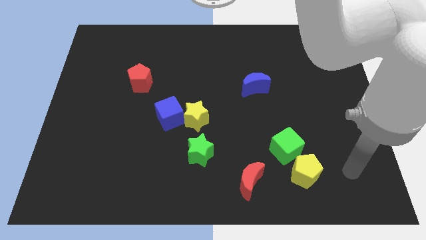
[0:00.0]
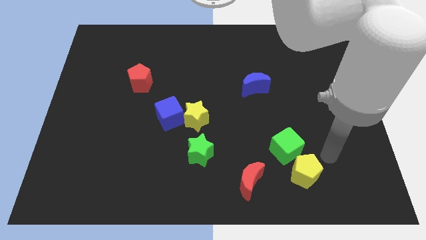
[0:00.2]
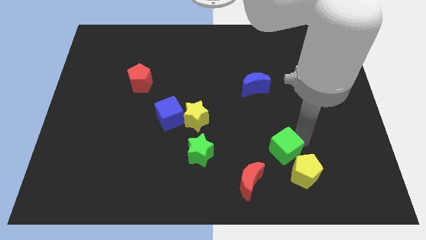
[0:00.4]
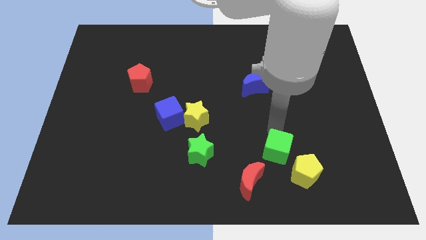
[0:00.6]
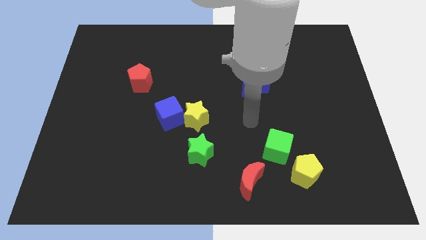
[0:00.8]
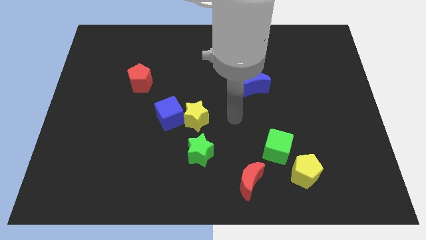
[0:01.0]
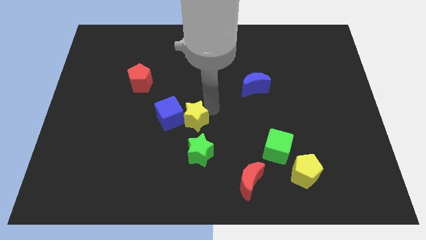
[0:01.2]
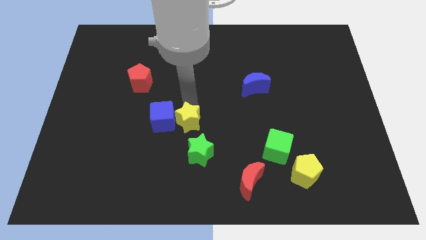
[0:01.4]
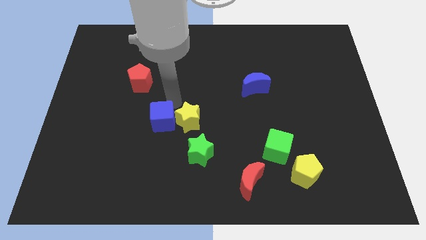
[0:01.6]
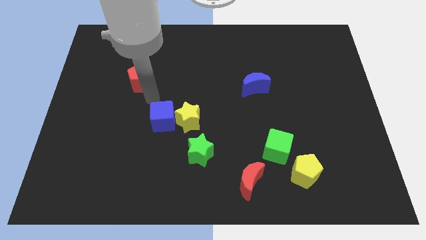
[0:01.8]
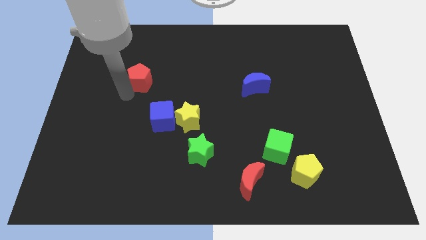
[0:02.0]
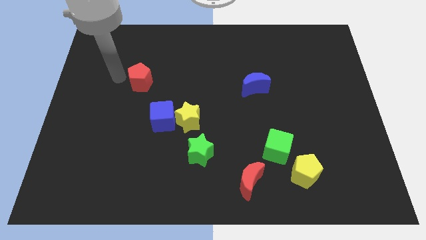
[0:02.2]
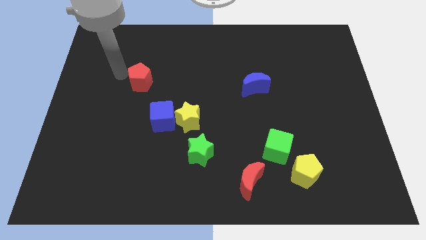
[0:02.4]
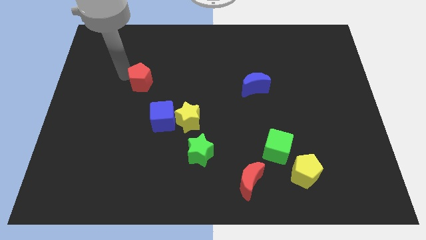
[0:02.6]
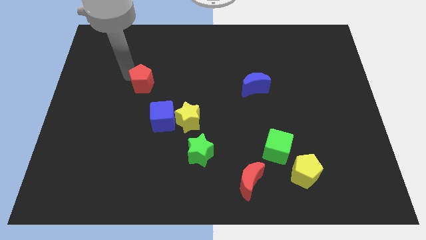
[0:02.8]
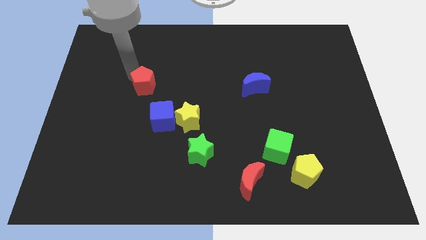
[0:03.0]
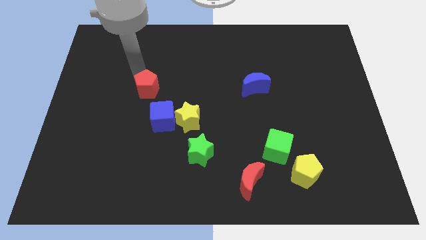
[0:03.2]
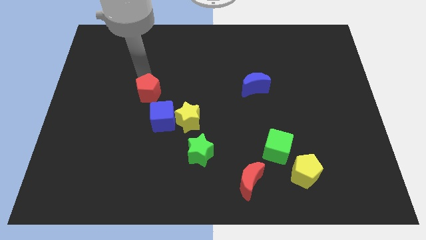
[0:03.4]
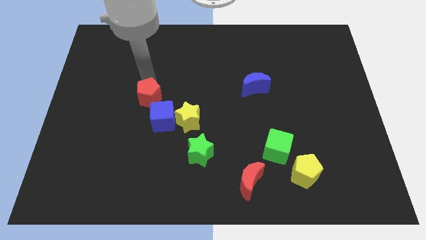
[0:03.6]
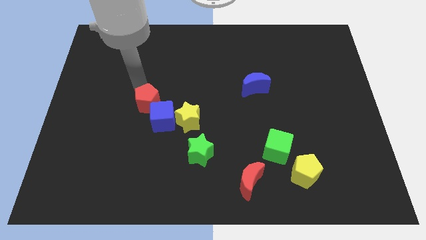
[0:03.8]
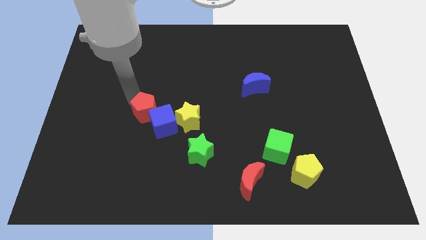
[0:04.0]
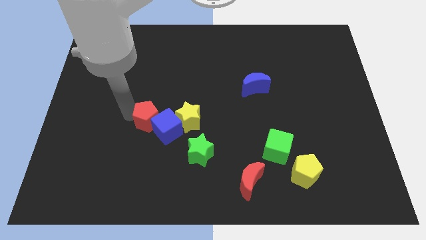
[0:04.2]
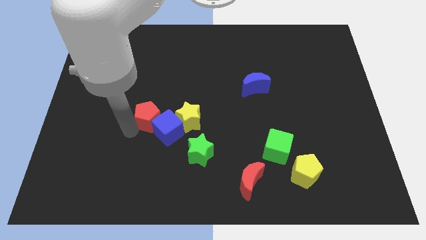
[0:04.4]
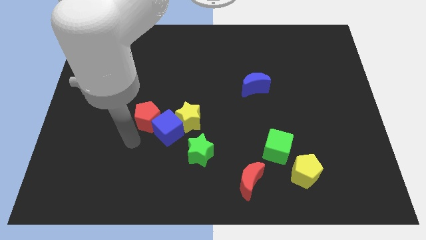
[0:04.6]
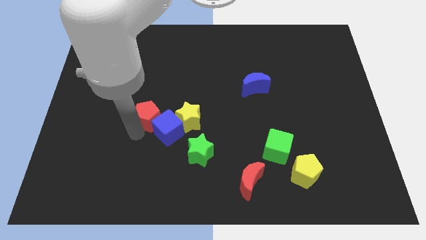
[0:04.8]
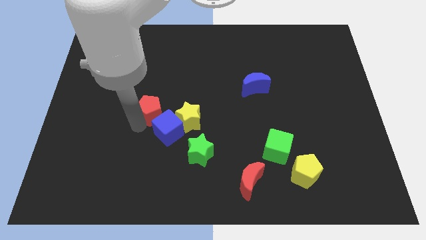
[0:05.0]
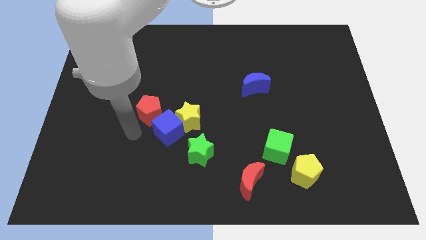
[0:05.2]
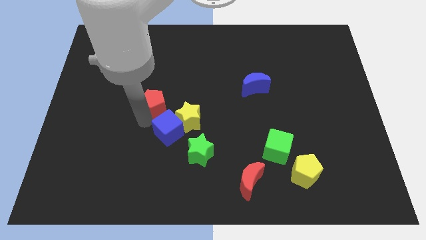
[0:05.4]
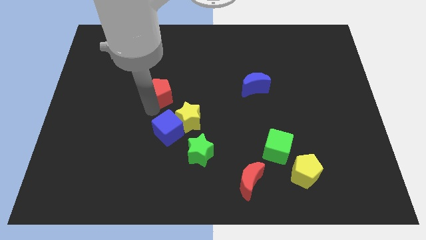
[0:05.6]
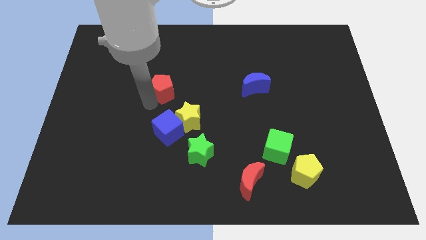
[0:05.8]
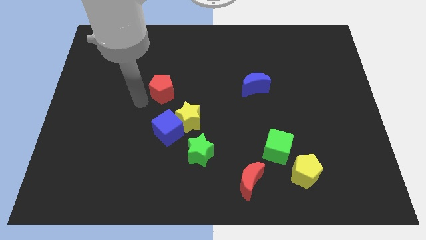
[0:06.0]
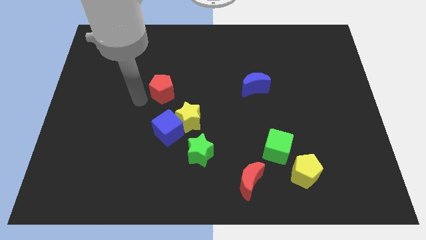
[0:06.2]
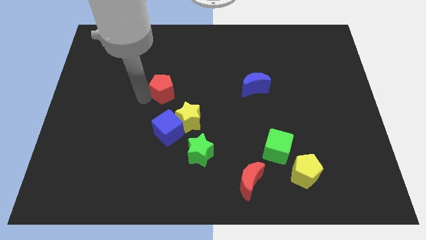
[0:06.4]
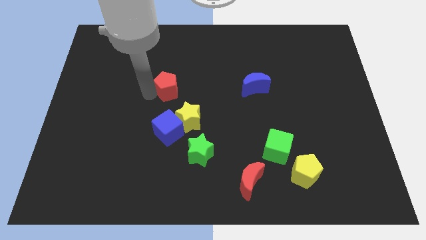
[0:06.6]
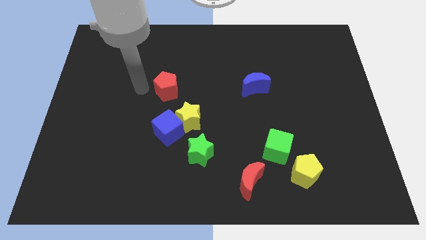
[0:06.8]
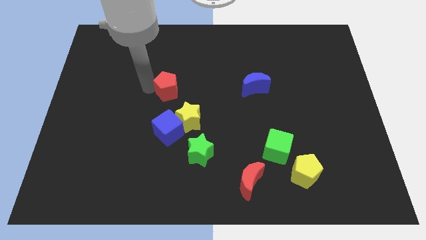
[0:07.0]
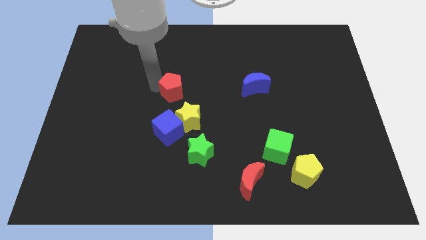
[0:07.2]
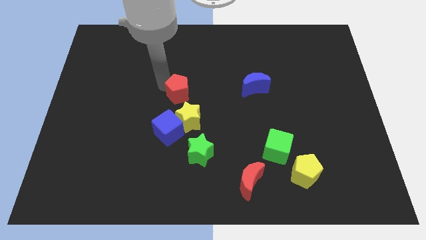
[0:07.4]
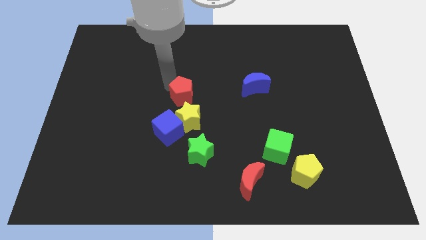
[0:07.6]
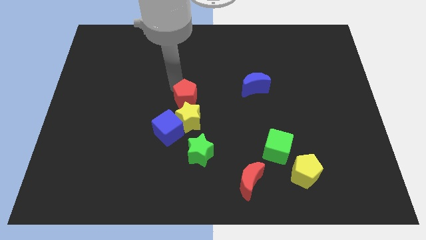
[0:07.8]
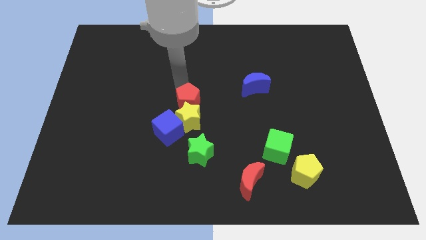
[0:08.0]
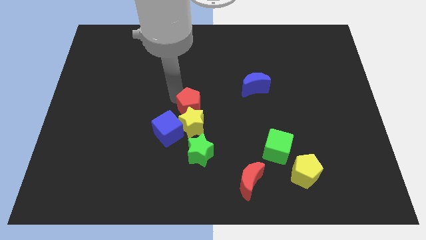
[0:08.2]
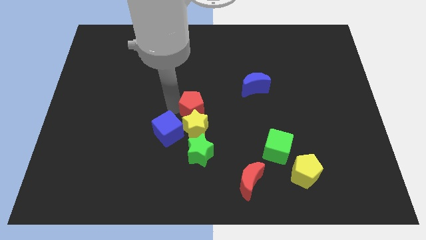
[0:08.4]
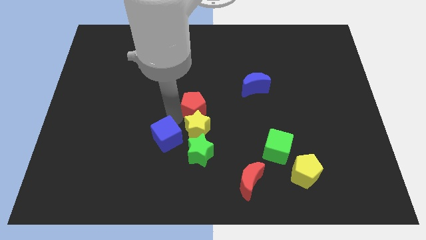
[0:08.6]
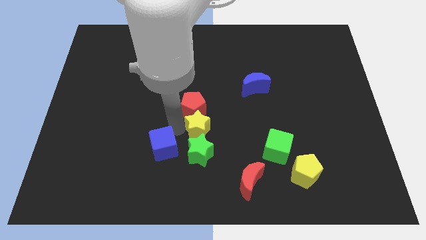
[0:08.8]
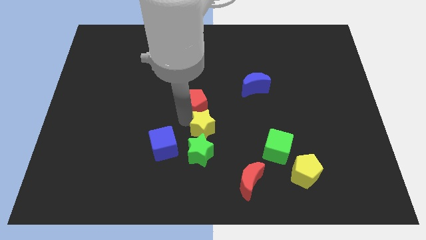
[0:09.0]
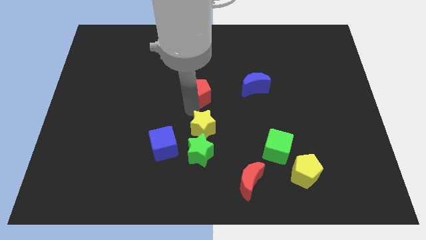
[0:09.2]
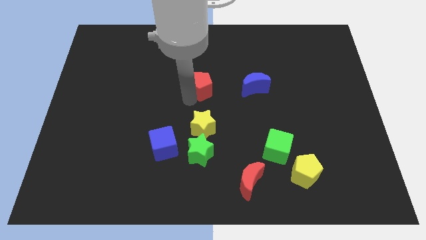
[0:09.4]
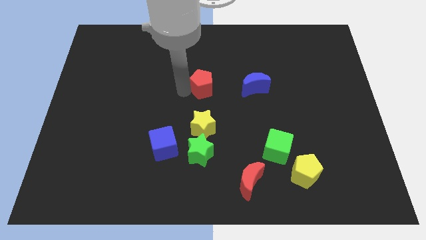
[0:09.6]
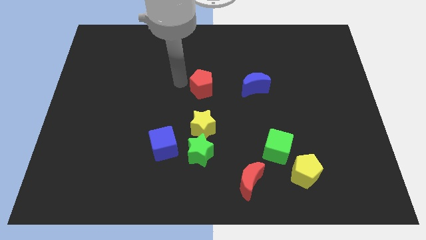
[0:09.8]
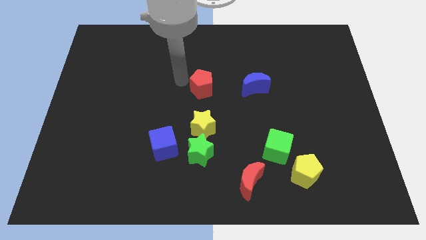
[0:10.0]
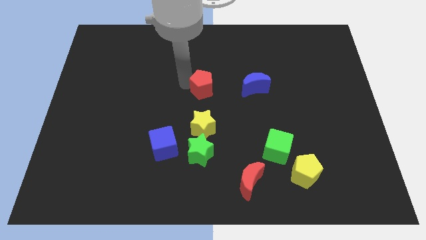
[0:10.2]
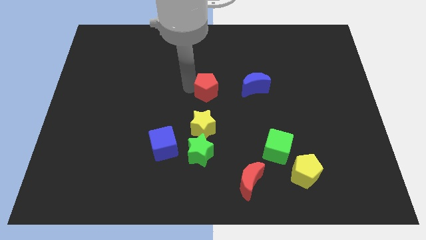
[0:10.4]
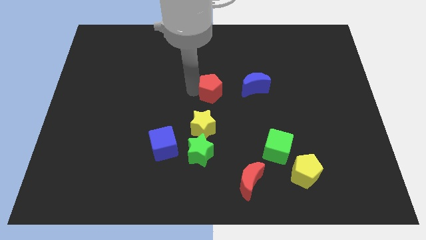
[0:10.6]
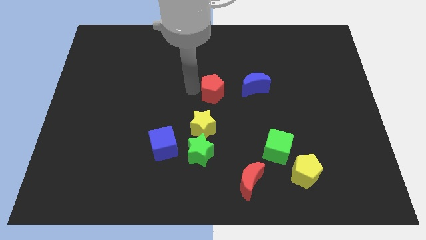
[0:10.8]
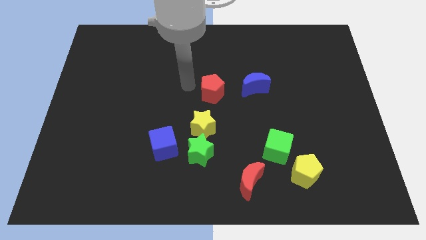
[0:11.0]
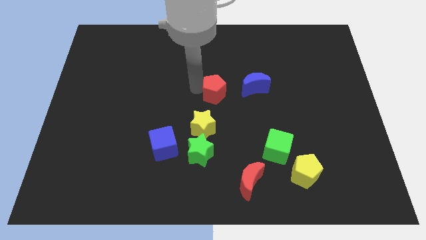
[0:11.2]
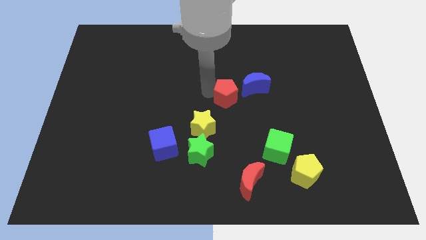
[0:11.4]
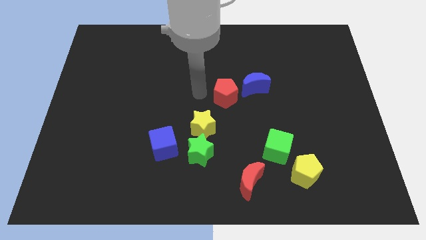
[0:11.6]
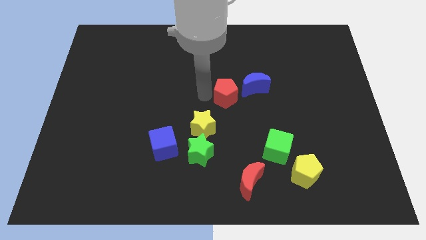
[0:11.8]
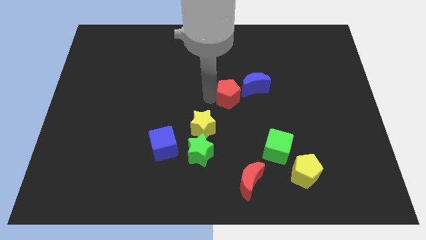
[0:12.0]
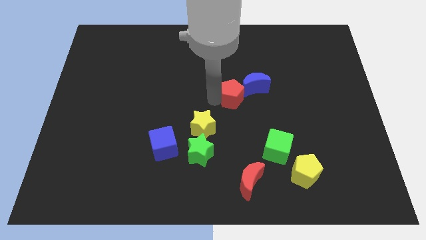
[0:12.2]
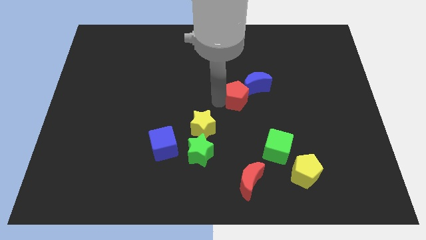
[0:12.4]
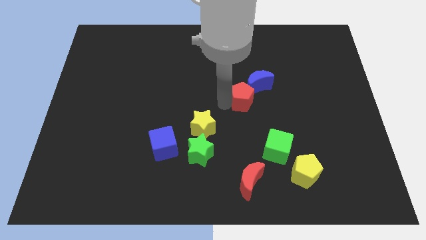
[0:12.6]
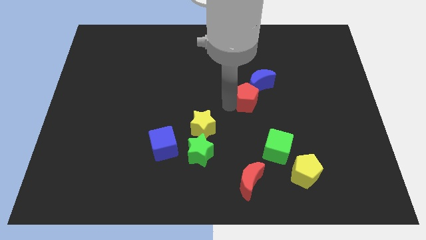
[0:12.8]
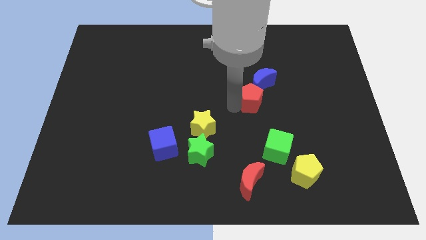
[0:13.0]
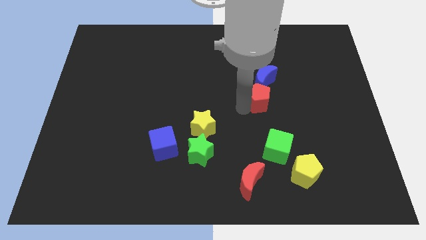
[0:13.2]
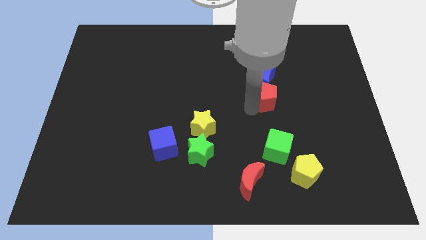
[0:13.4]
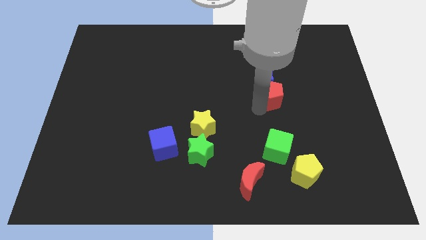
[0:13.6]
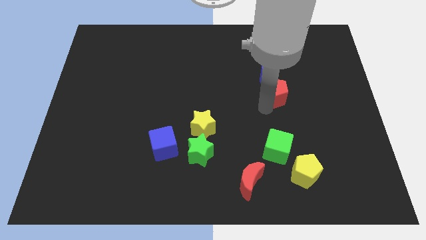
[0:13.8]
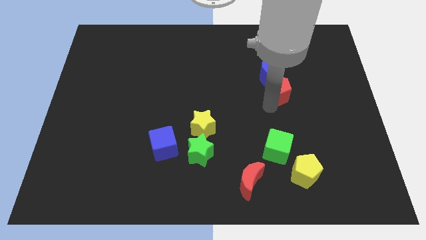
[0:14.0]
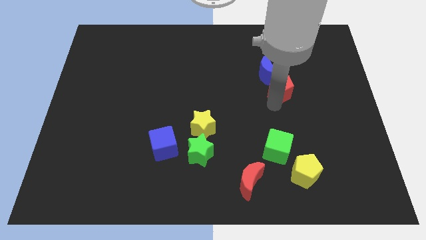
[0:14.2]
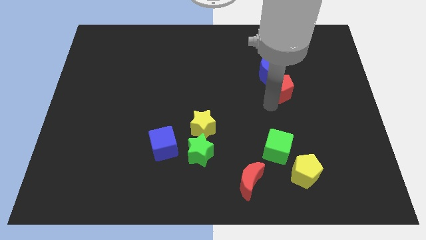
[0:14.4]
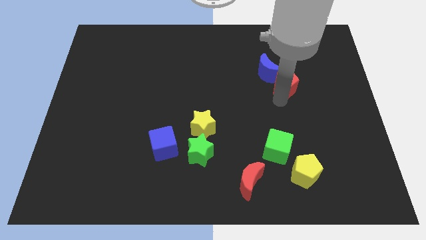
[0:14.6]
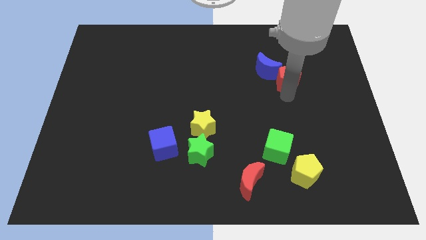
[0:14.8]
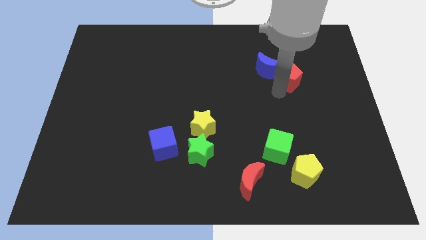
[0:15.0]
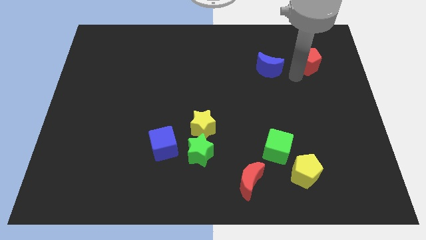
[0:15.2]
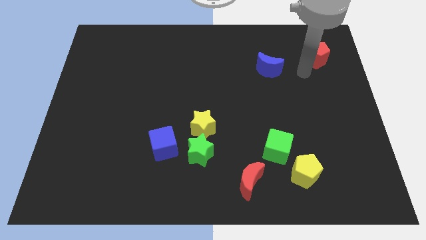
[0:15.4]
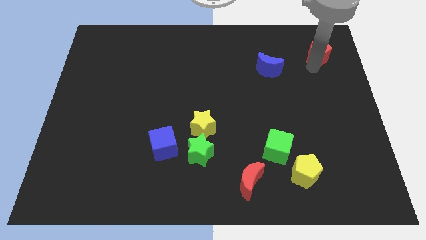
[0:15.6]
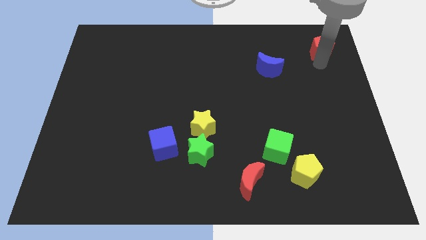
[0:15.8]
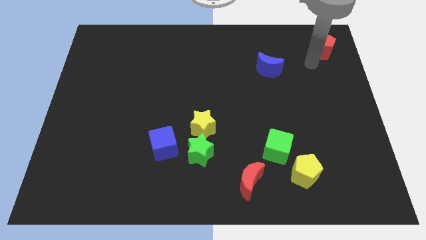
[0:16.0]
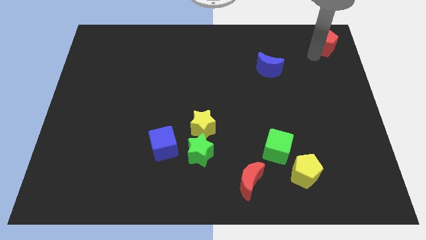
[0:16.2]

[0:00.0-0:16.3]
put the red pentagon to the top right
